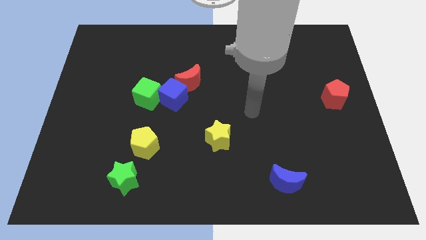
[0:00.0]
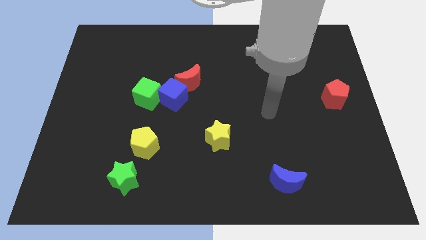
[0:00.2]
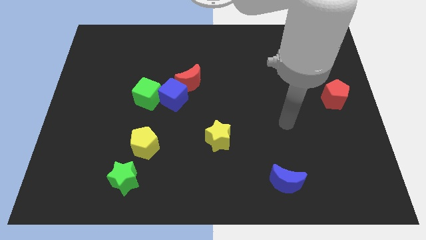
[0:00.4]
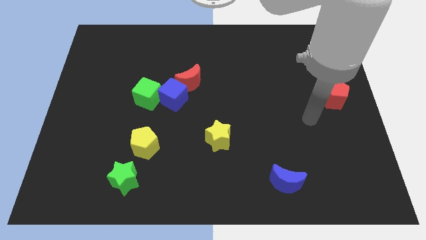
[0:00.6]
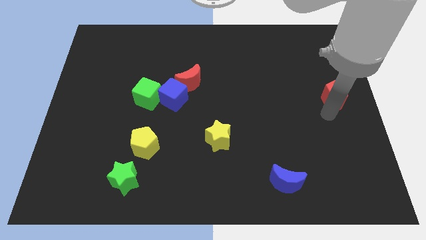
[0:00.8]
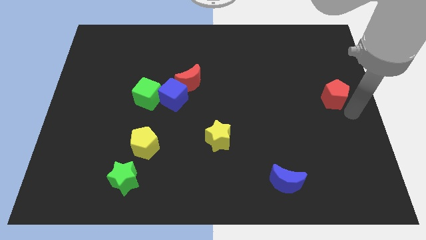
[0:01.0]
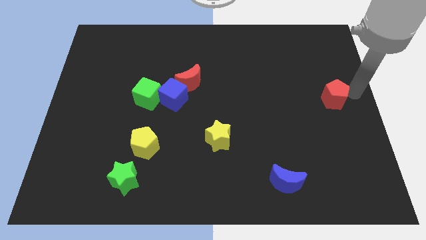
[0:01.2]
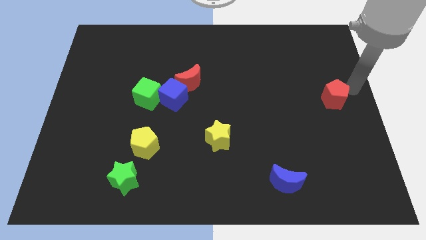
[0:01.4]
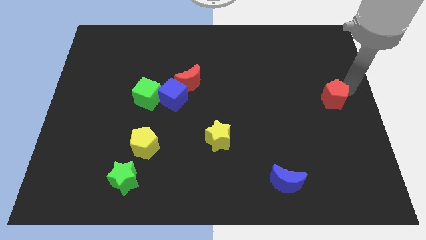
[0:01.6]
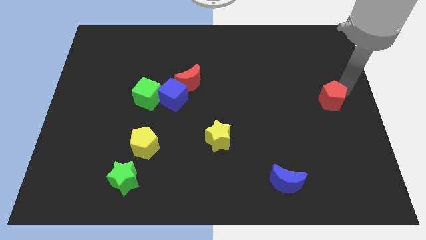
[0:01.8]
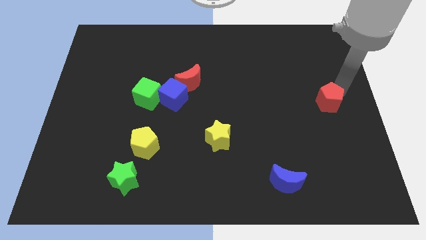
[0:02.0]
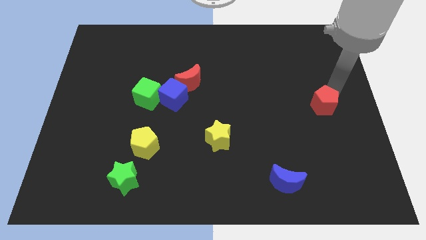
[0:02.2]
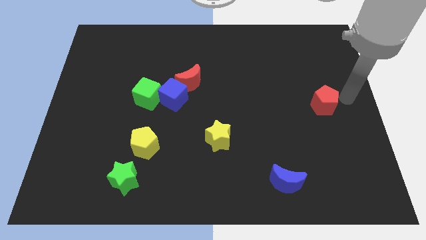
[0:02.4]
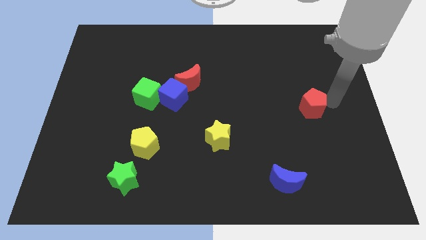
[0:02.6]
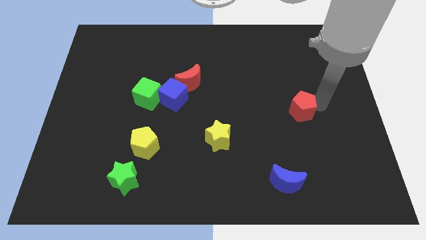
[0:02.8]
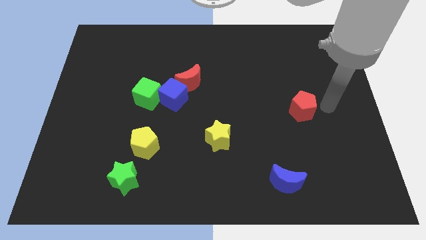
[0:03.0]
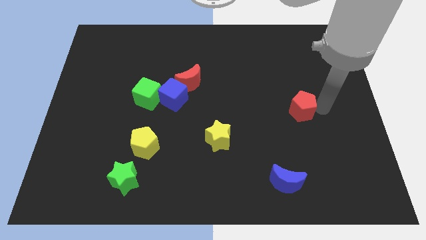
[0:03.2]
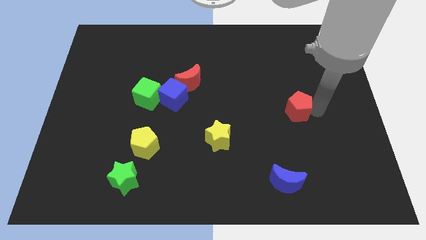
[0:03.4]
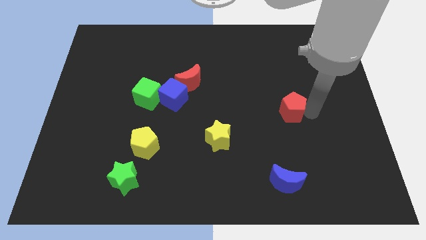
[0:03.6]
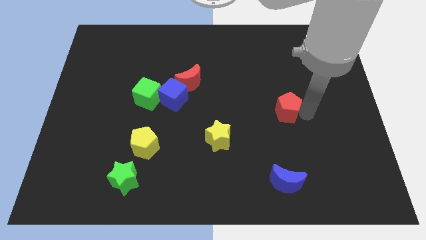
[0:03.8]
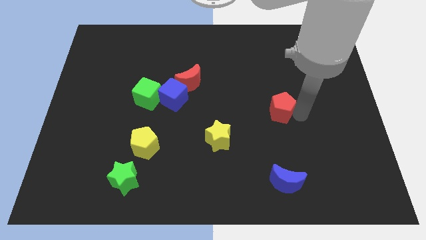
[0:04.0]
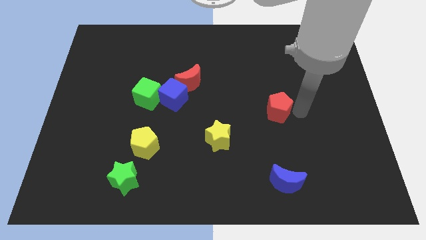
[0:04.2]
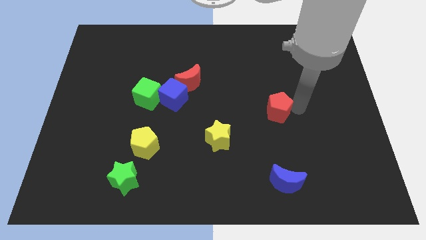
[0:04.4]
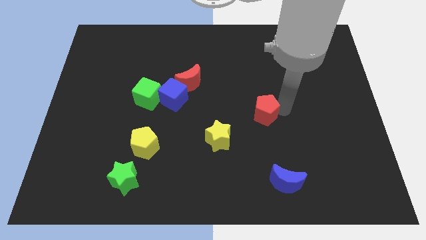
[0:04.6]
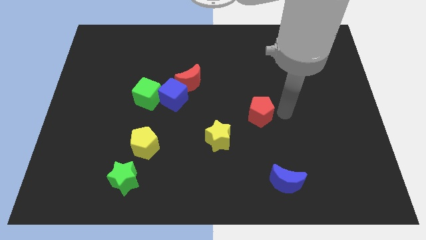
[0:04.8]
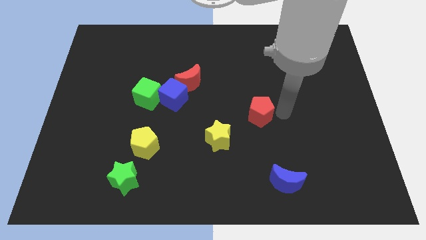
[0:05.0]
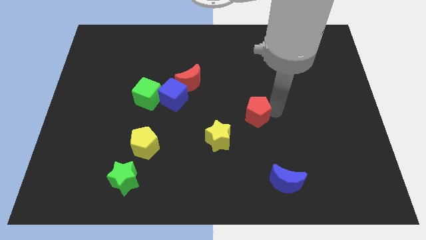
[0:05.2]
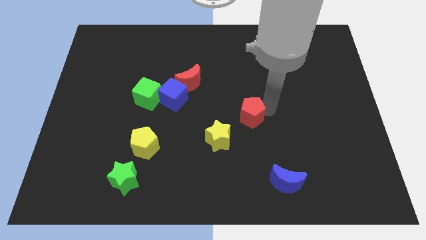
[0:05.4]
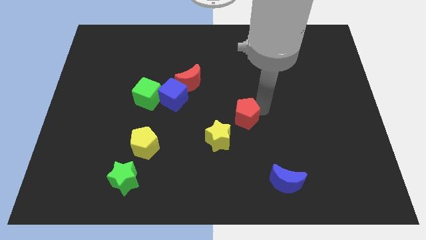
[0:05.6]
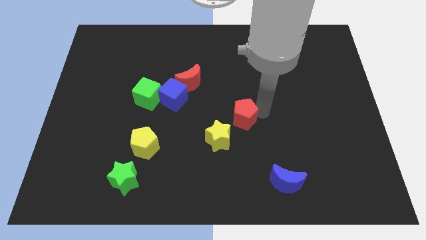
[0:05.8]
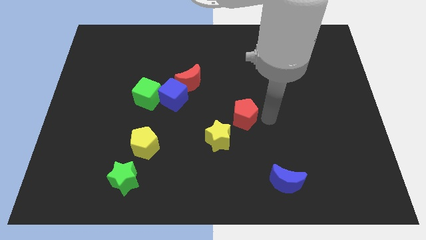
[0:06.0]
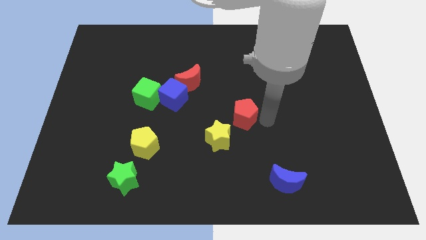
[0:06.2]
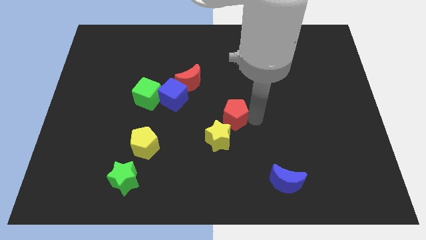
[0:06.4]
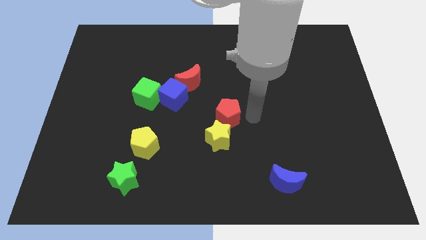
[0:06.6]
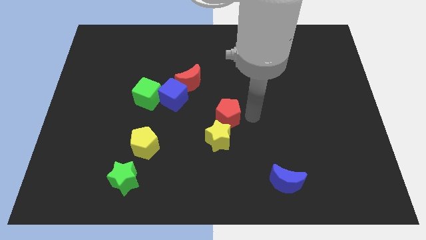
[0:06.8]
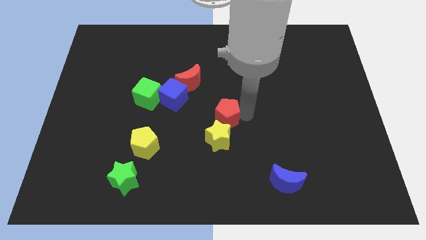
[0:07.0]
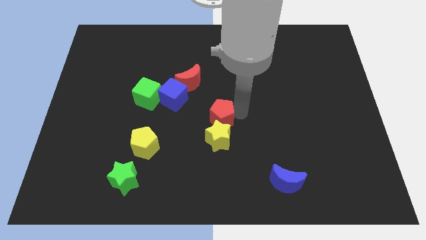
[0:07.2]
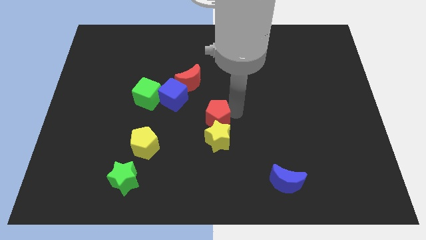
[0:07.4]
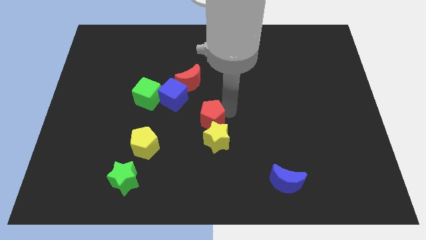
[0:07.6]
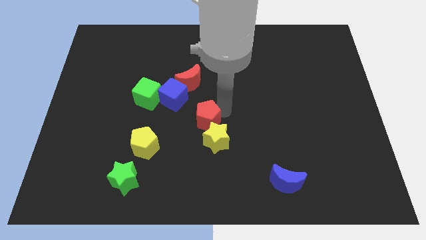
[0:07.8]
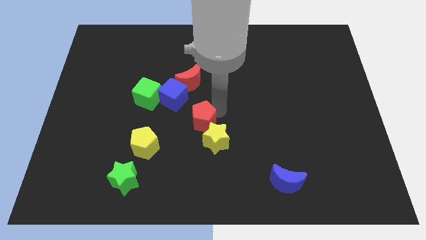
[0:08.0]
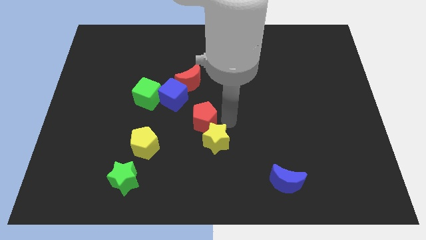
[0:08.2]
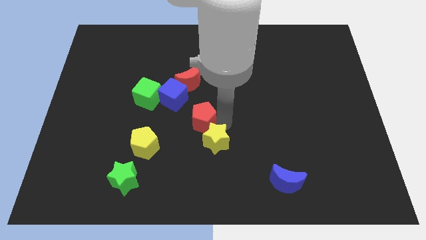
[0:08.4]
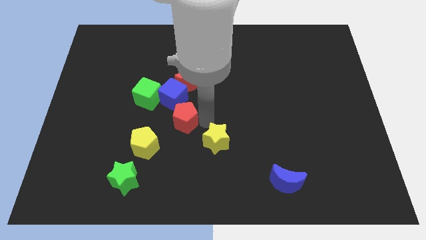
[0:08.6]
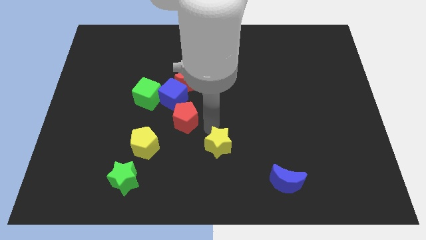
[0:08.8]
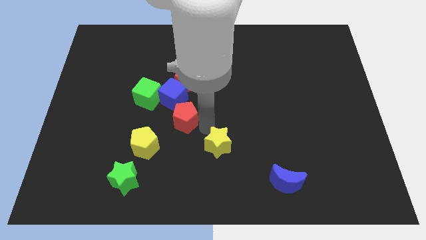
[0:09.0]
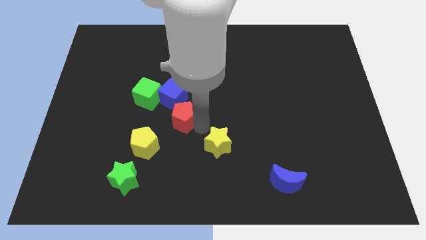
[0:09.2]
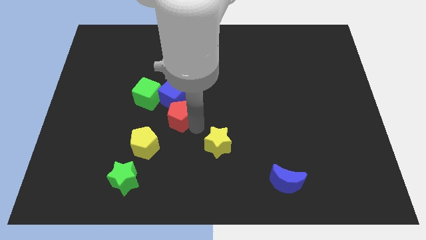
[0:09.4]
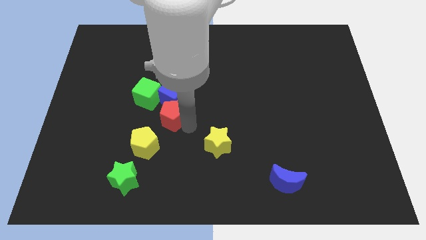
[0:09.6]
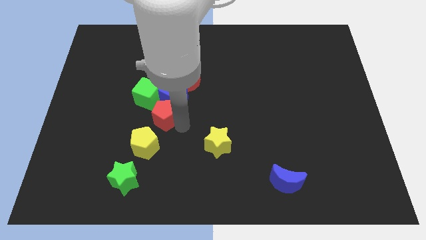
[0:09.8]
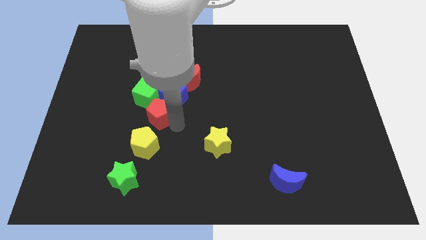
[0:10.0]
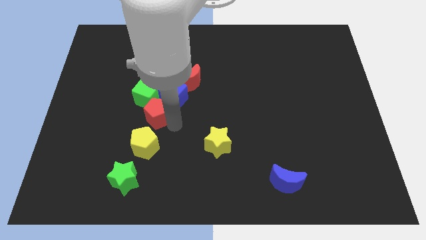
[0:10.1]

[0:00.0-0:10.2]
push the red pentagon to the green cube

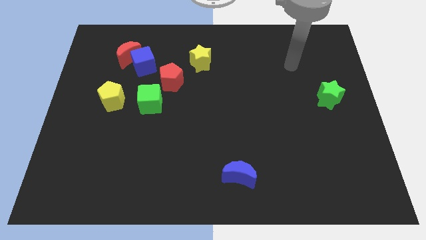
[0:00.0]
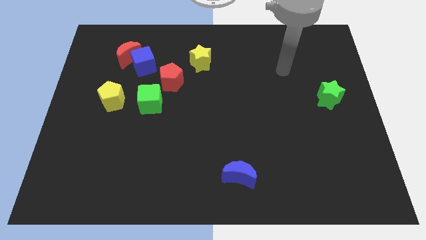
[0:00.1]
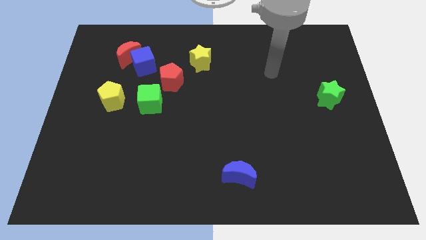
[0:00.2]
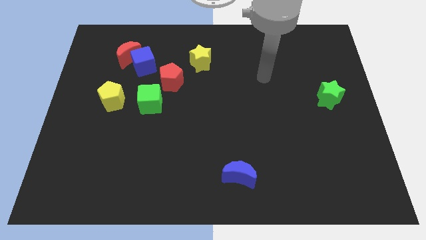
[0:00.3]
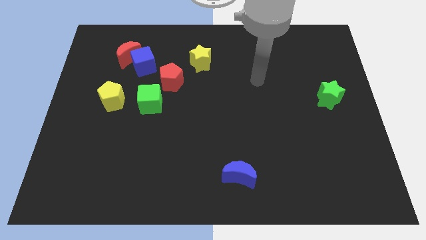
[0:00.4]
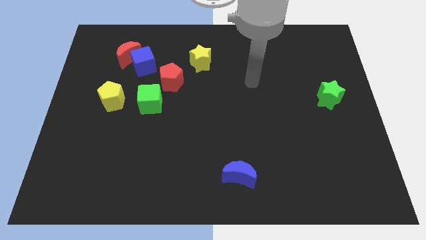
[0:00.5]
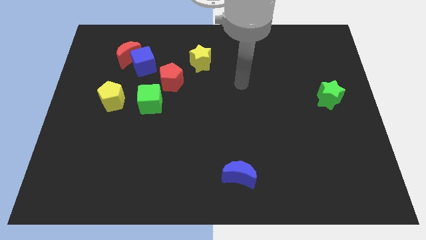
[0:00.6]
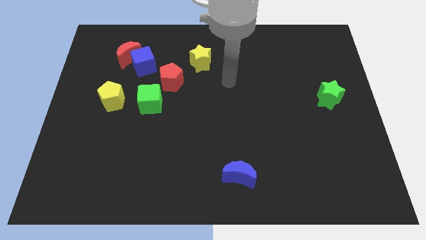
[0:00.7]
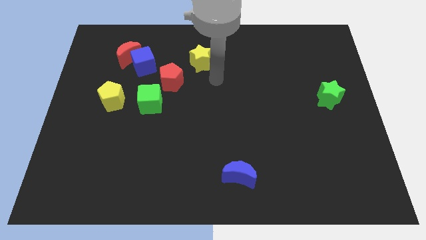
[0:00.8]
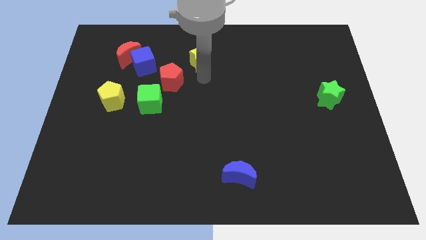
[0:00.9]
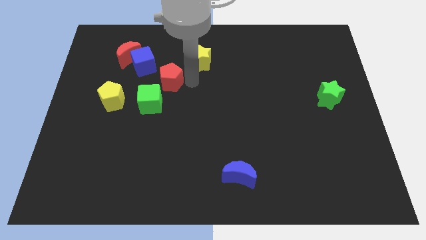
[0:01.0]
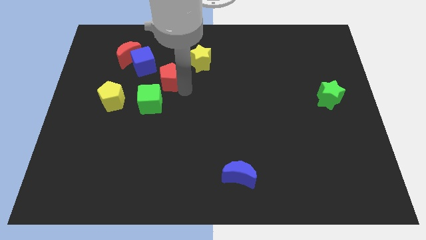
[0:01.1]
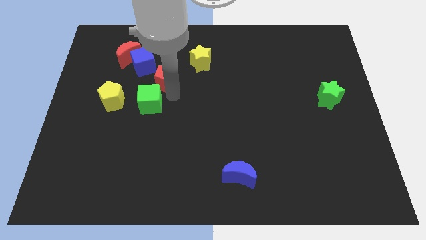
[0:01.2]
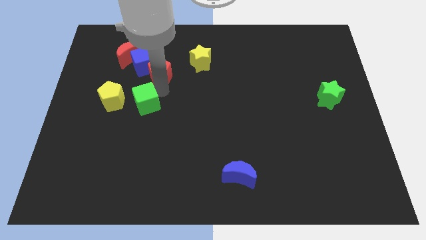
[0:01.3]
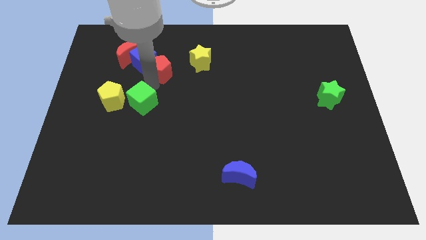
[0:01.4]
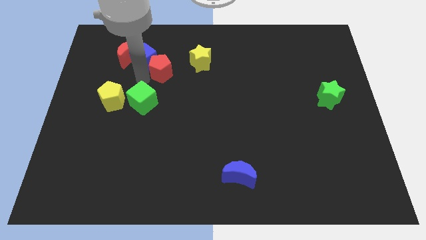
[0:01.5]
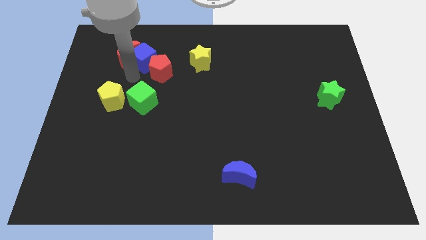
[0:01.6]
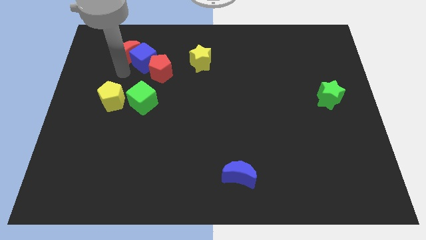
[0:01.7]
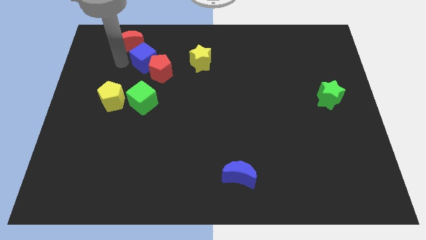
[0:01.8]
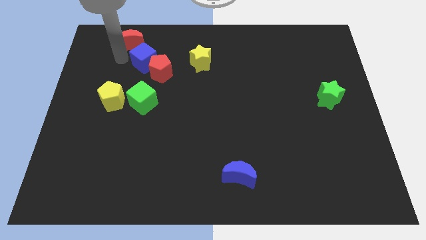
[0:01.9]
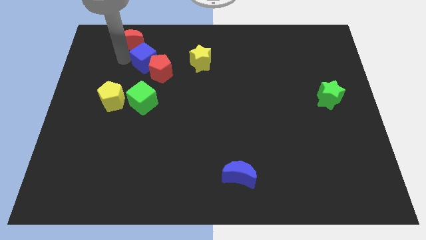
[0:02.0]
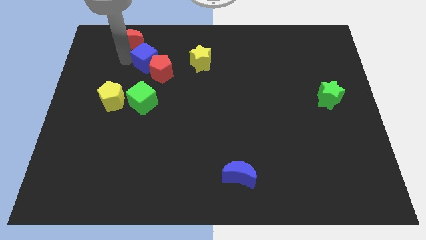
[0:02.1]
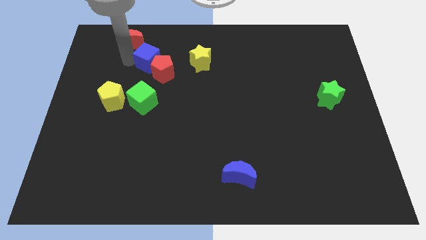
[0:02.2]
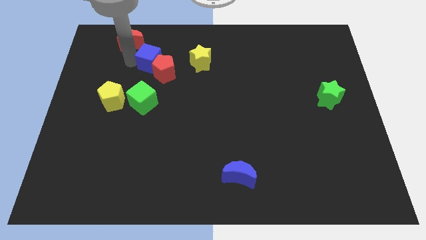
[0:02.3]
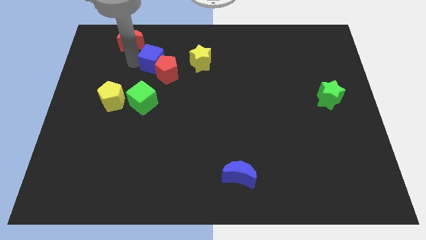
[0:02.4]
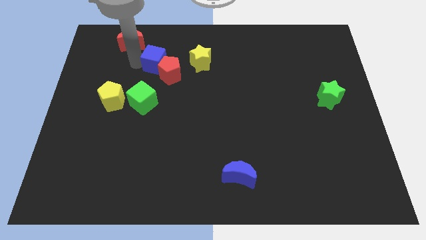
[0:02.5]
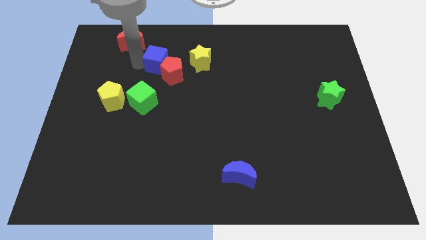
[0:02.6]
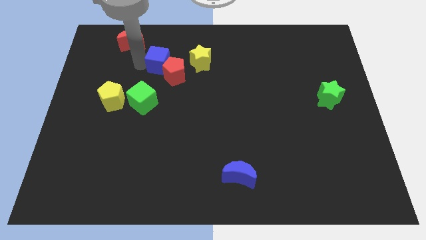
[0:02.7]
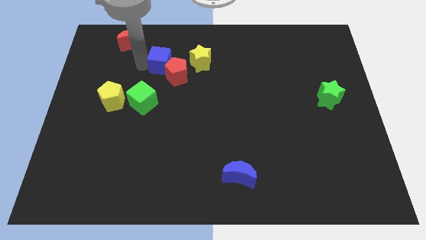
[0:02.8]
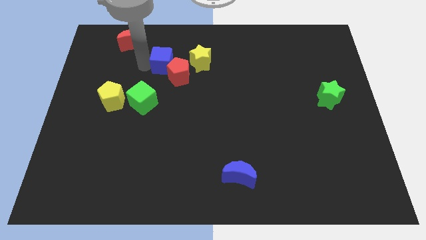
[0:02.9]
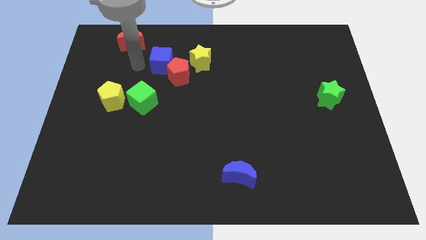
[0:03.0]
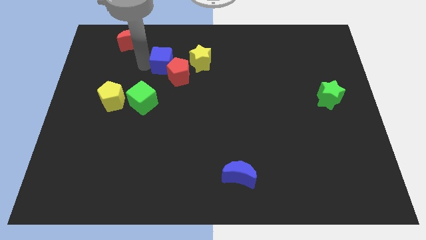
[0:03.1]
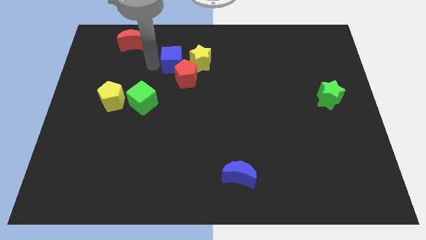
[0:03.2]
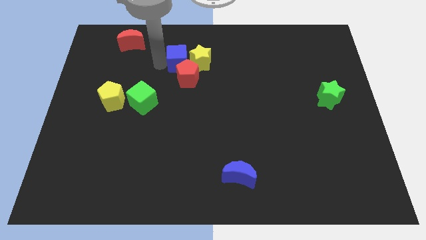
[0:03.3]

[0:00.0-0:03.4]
move the blue cube towards the yellow star
